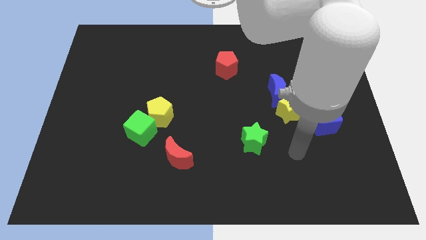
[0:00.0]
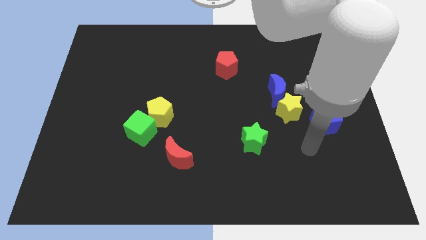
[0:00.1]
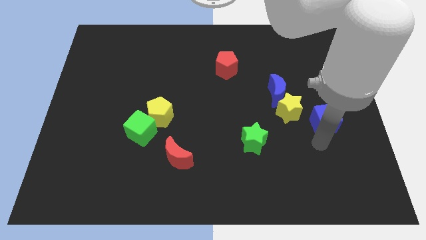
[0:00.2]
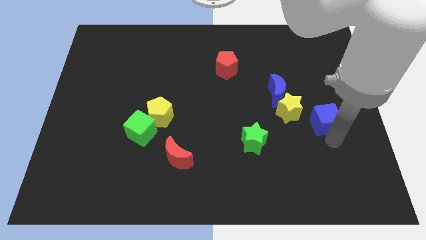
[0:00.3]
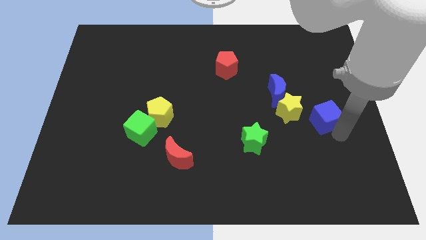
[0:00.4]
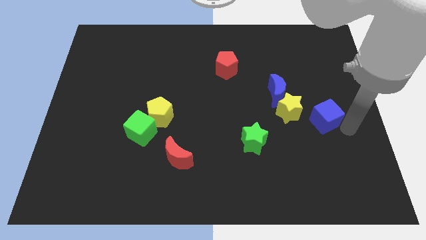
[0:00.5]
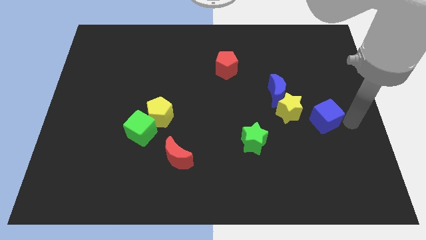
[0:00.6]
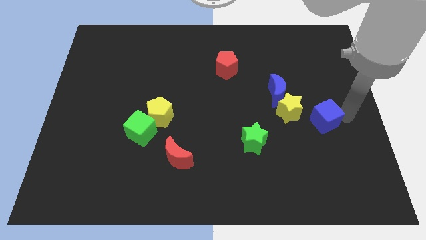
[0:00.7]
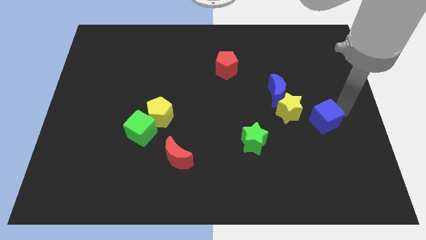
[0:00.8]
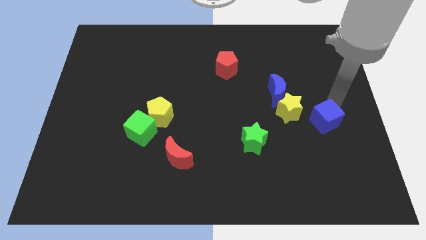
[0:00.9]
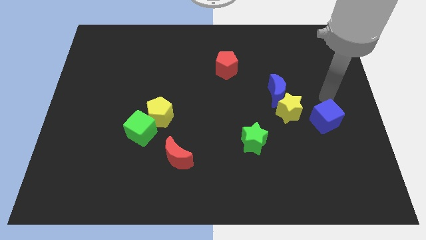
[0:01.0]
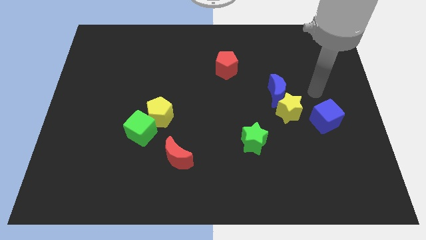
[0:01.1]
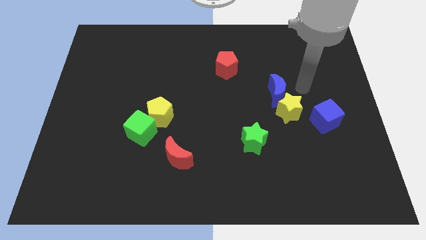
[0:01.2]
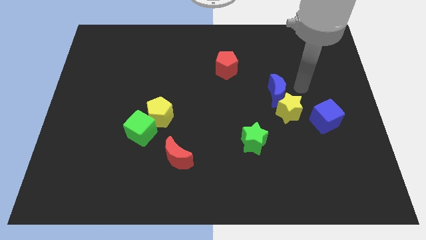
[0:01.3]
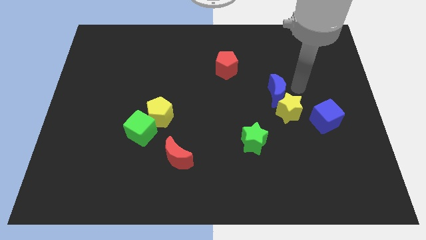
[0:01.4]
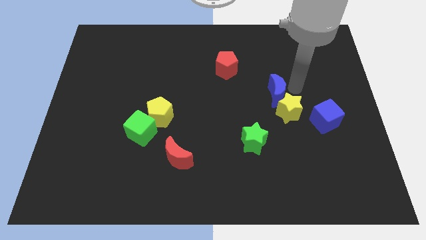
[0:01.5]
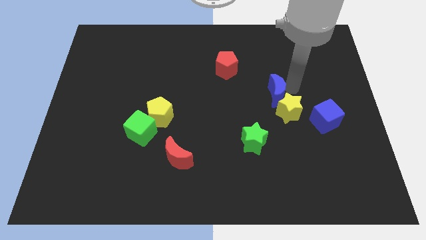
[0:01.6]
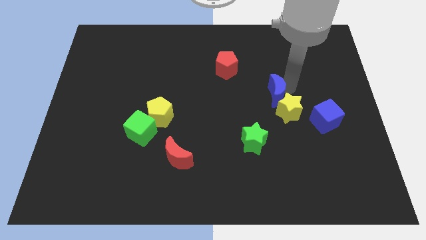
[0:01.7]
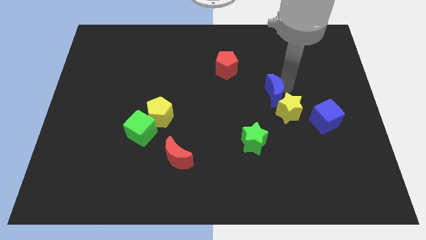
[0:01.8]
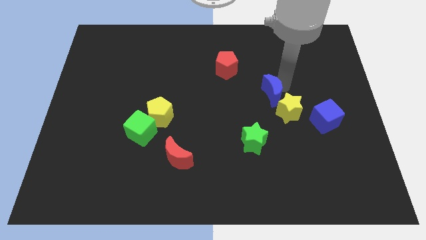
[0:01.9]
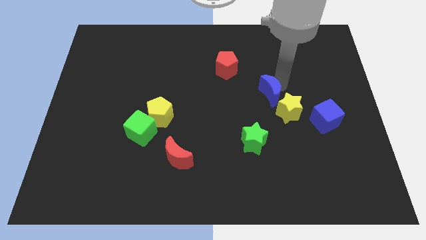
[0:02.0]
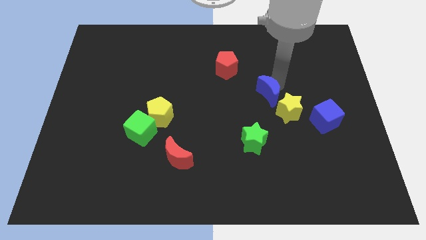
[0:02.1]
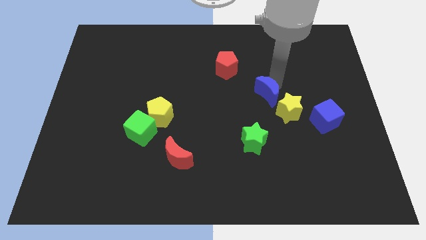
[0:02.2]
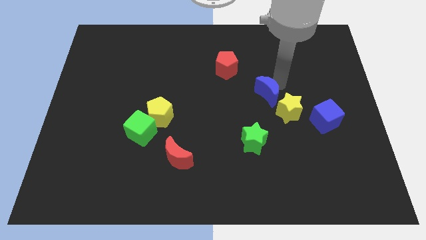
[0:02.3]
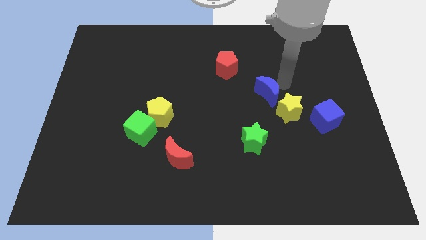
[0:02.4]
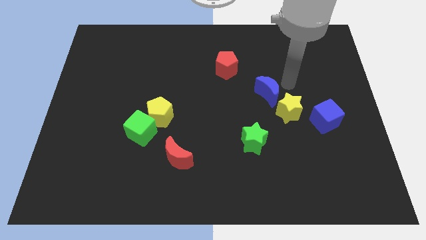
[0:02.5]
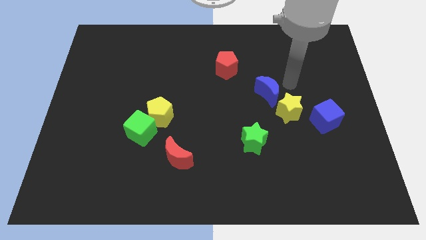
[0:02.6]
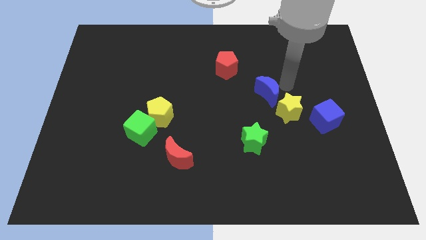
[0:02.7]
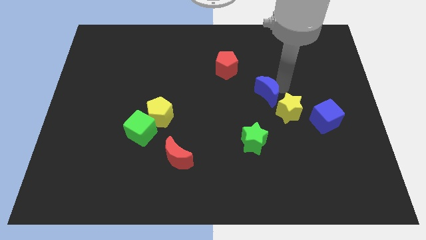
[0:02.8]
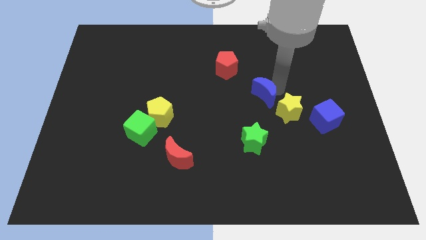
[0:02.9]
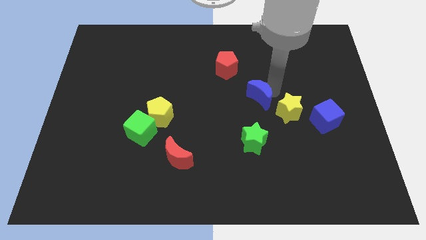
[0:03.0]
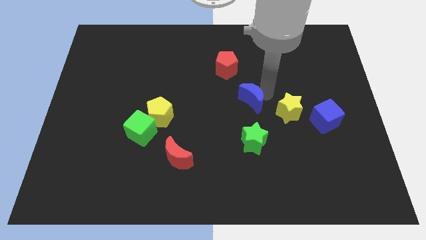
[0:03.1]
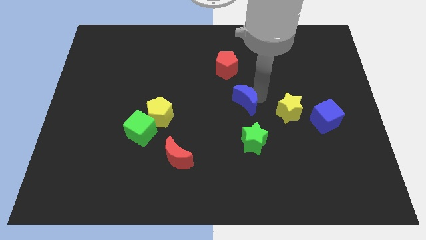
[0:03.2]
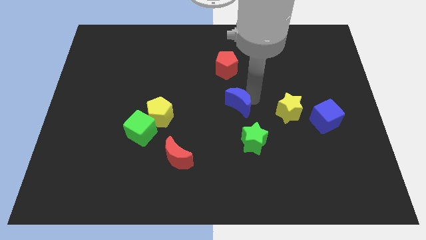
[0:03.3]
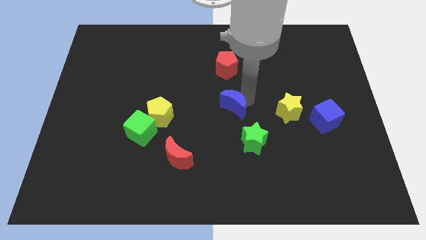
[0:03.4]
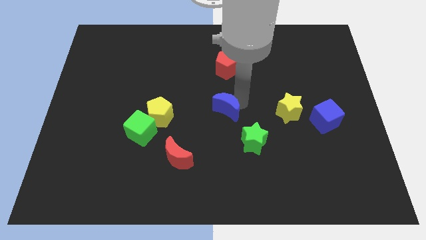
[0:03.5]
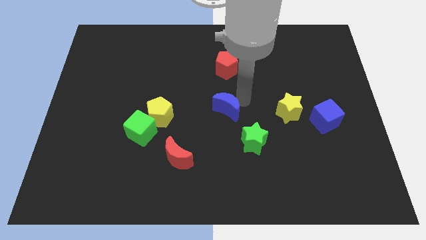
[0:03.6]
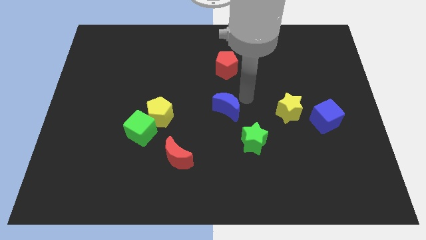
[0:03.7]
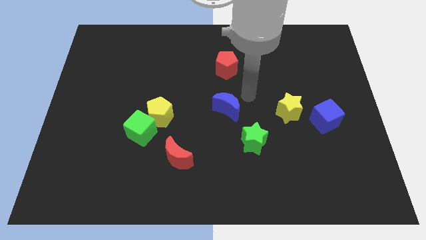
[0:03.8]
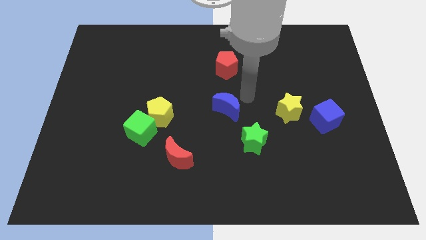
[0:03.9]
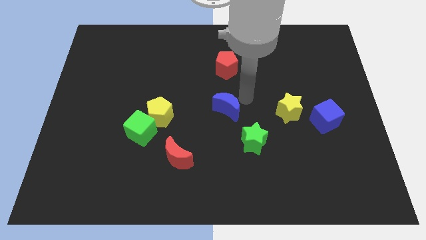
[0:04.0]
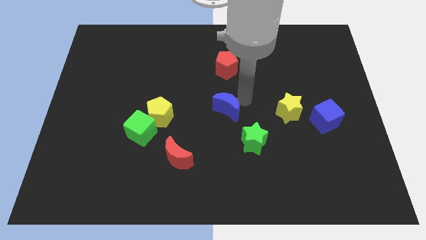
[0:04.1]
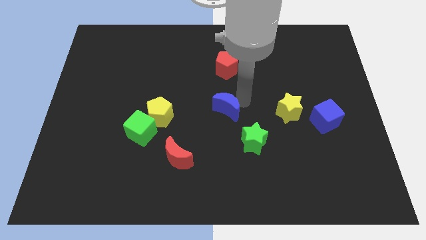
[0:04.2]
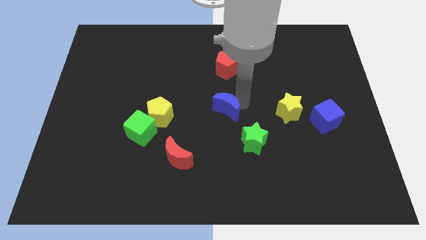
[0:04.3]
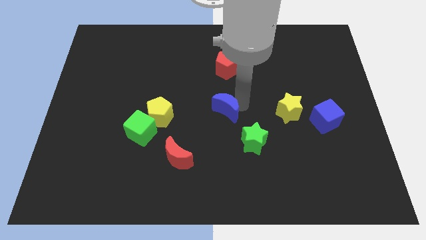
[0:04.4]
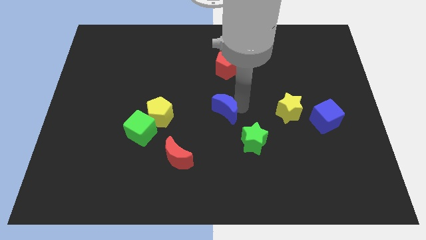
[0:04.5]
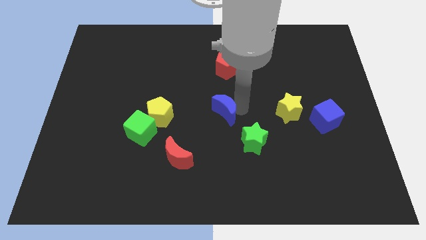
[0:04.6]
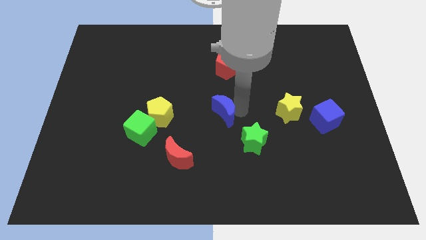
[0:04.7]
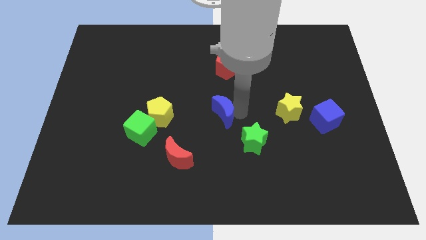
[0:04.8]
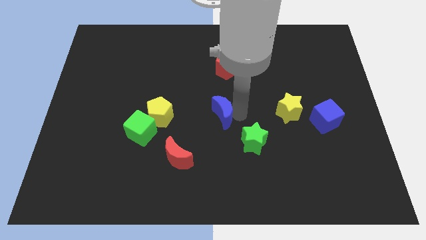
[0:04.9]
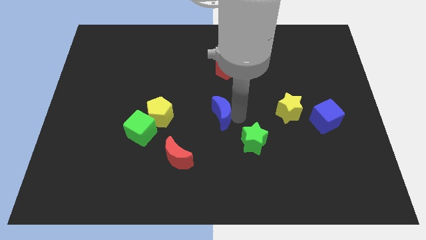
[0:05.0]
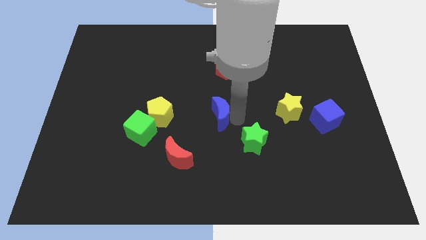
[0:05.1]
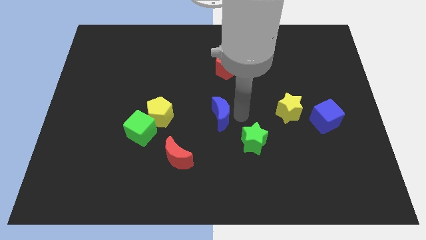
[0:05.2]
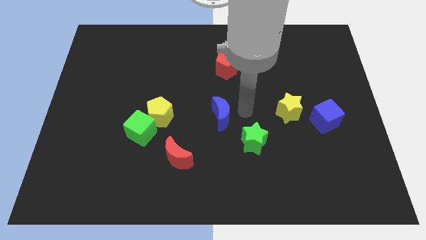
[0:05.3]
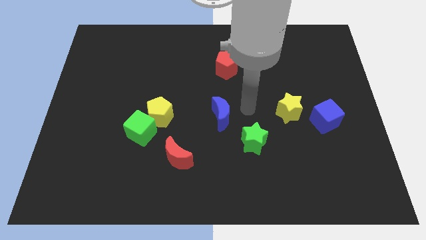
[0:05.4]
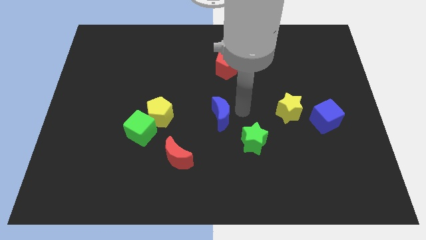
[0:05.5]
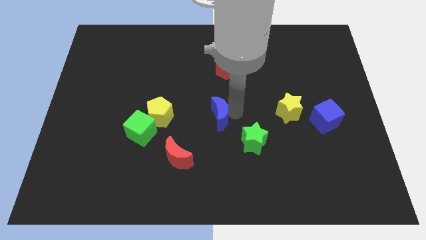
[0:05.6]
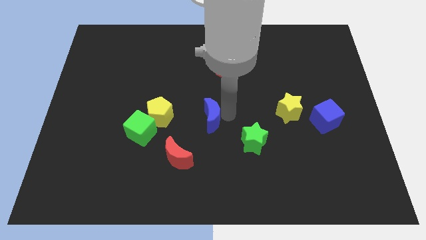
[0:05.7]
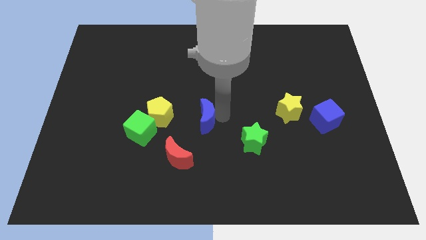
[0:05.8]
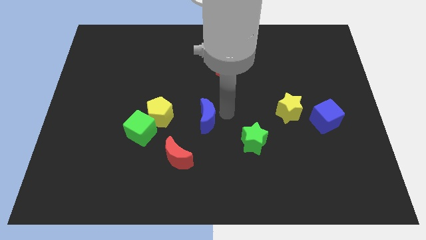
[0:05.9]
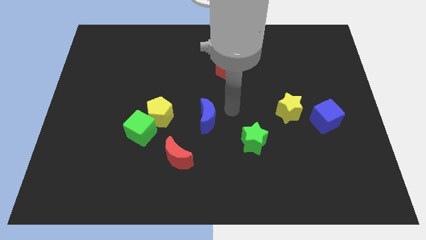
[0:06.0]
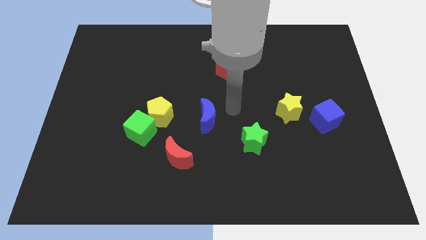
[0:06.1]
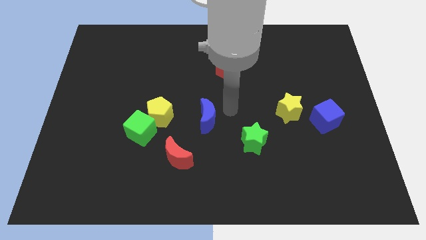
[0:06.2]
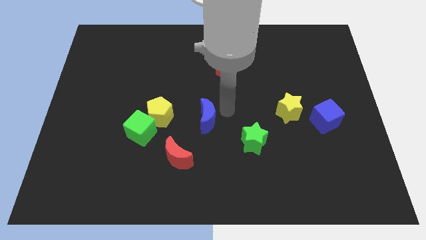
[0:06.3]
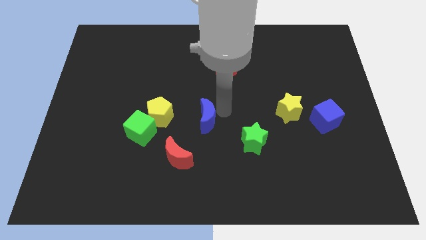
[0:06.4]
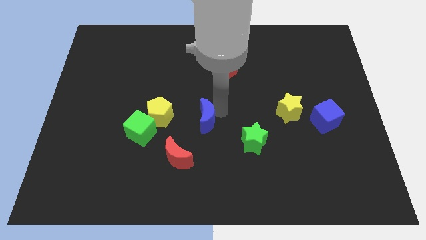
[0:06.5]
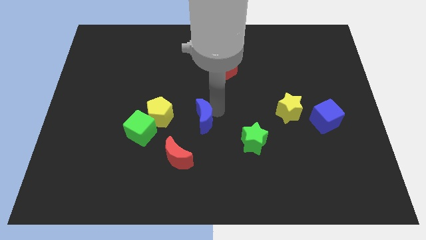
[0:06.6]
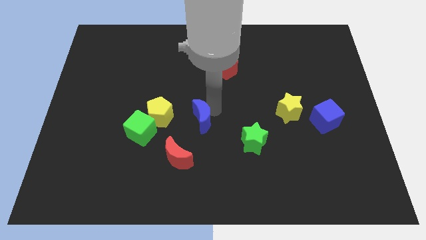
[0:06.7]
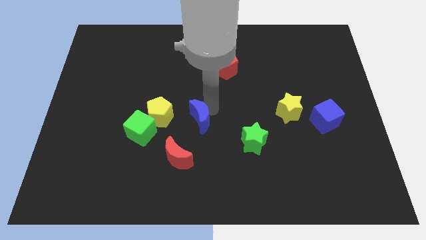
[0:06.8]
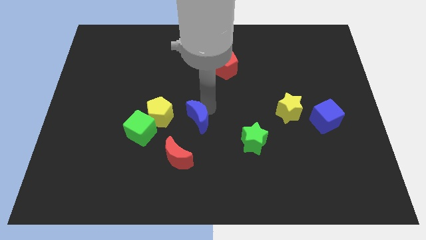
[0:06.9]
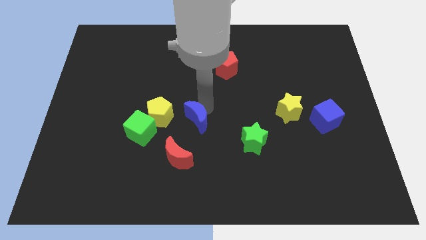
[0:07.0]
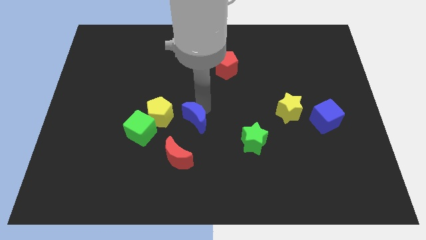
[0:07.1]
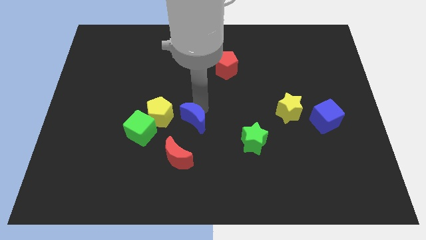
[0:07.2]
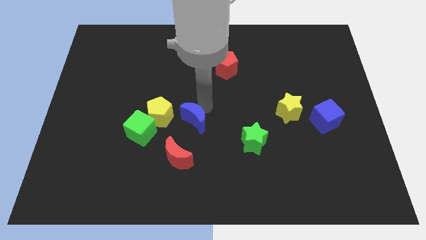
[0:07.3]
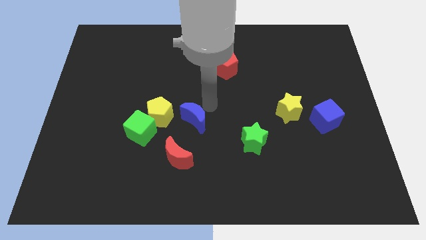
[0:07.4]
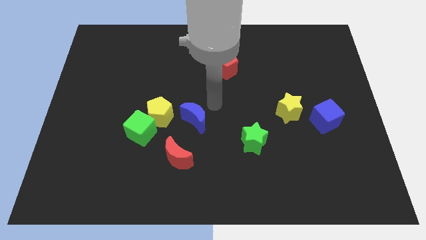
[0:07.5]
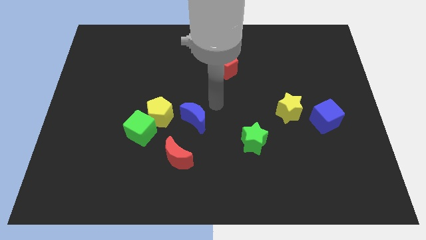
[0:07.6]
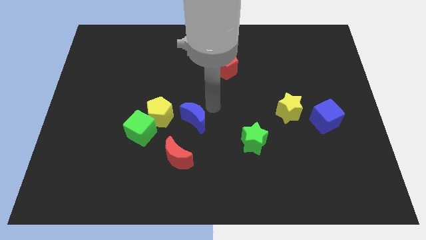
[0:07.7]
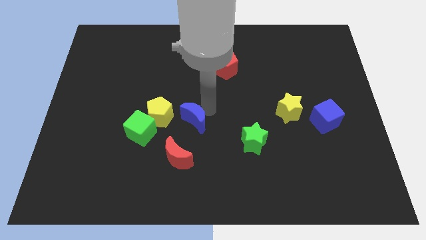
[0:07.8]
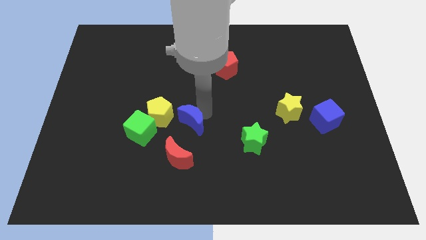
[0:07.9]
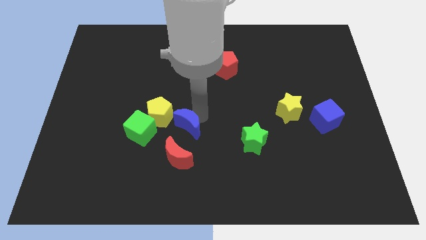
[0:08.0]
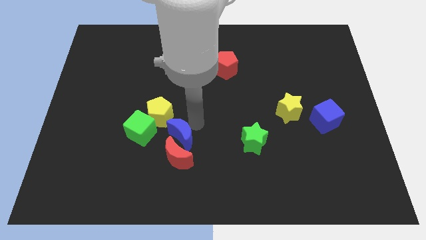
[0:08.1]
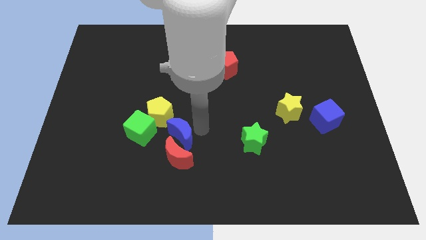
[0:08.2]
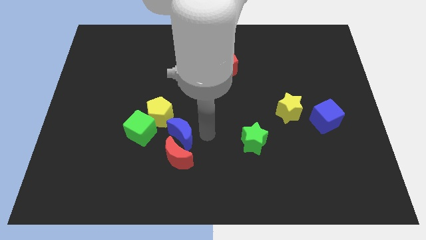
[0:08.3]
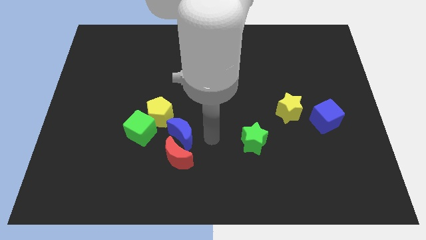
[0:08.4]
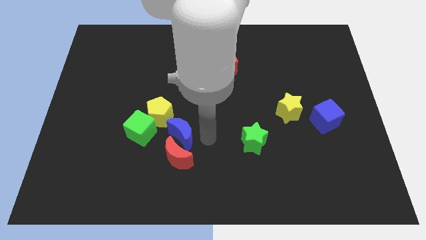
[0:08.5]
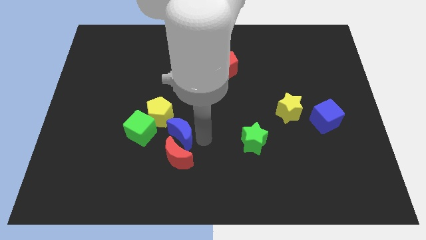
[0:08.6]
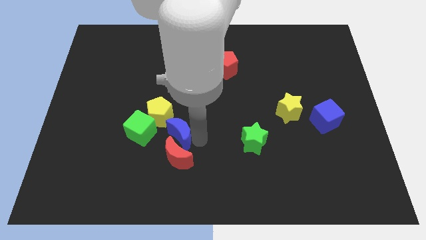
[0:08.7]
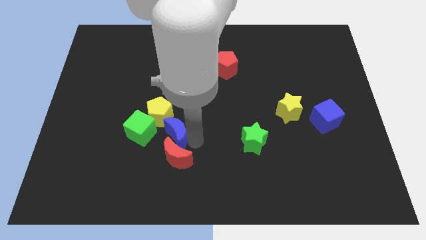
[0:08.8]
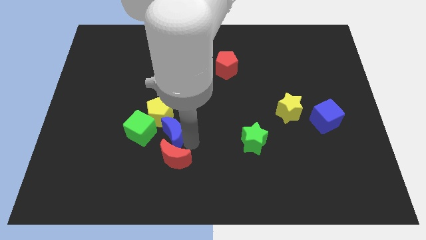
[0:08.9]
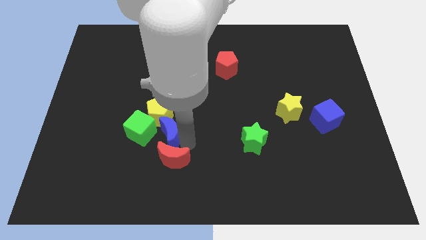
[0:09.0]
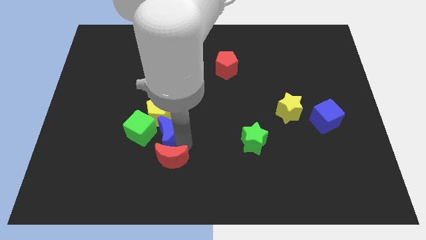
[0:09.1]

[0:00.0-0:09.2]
push the blue moon to the green cube
